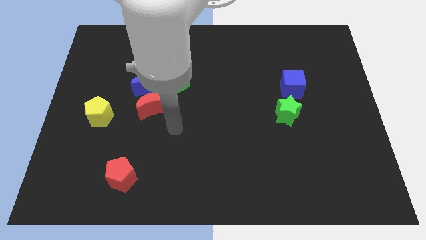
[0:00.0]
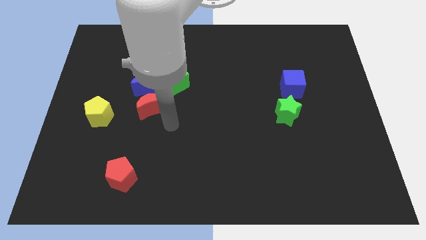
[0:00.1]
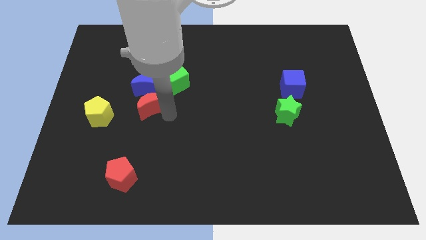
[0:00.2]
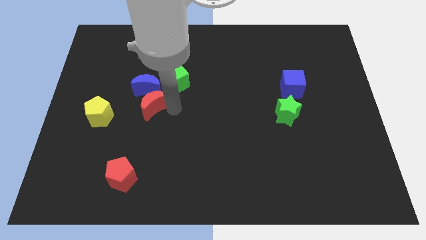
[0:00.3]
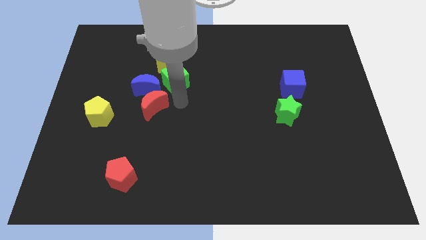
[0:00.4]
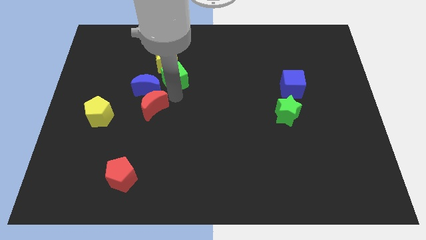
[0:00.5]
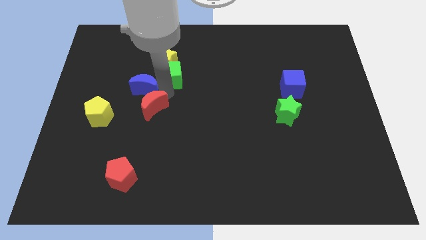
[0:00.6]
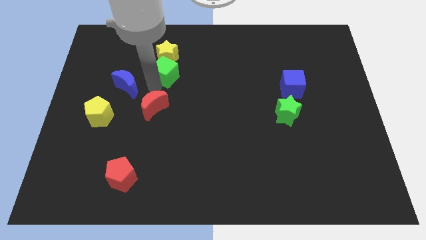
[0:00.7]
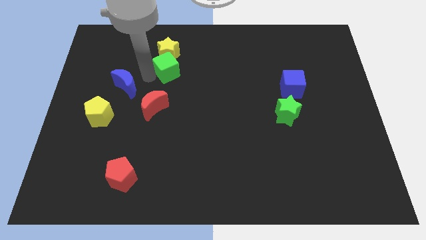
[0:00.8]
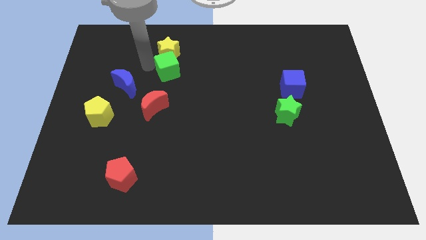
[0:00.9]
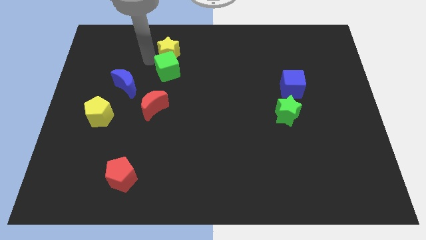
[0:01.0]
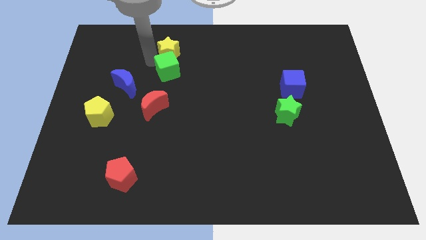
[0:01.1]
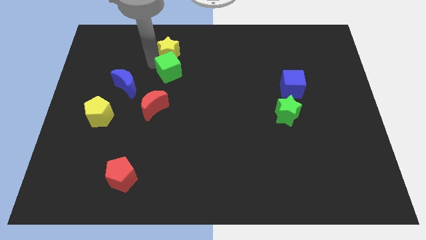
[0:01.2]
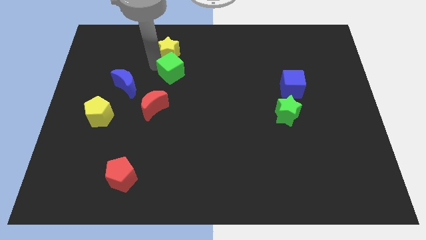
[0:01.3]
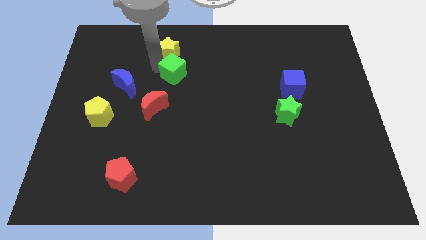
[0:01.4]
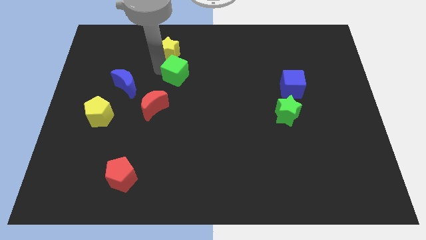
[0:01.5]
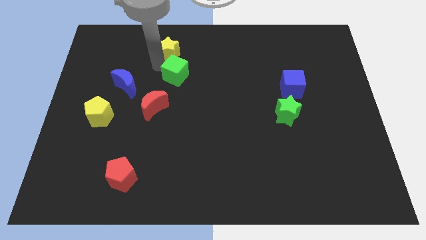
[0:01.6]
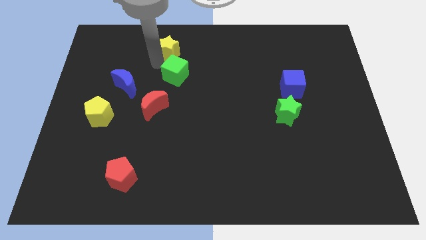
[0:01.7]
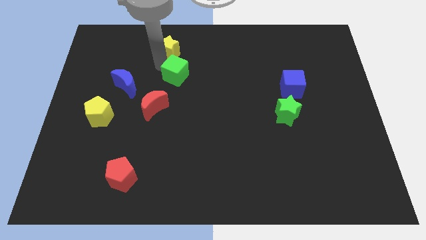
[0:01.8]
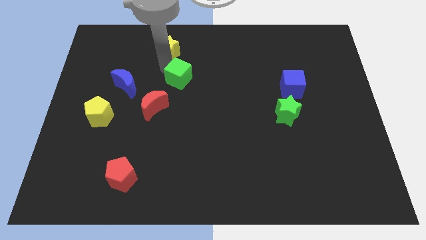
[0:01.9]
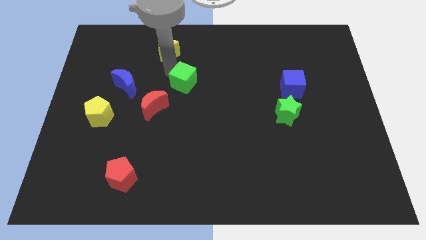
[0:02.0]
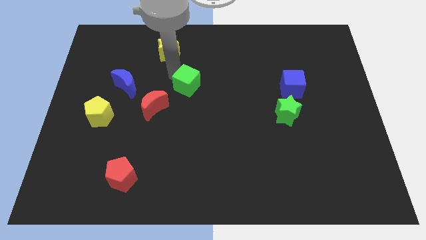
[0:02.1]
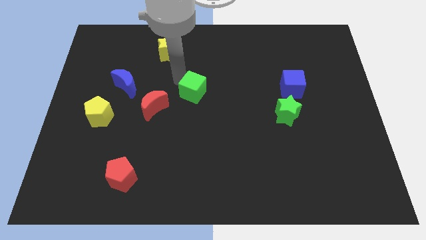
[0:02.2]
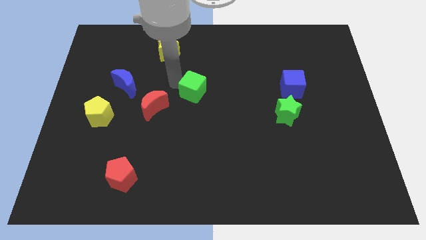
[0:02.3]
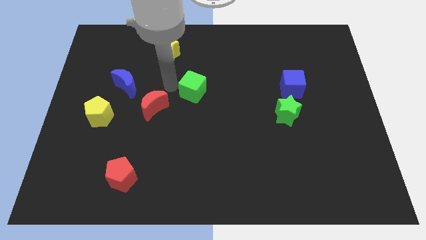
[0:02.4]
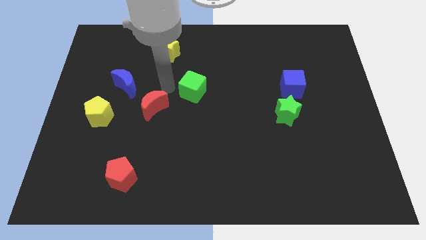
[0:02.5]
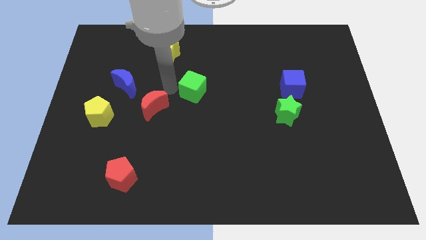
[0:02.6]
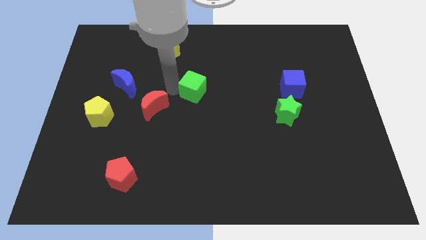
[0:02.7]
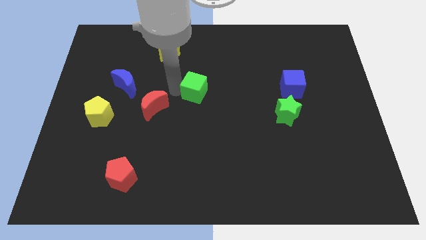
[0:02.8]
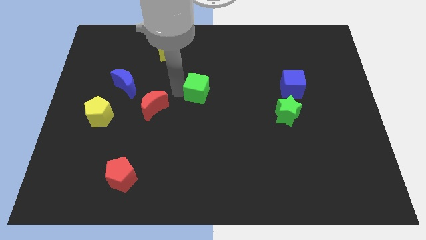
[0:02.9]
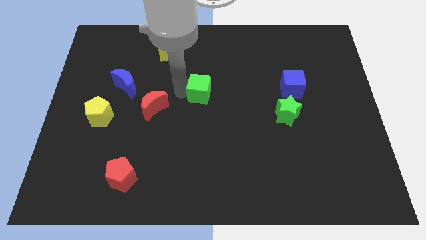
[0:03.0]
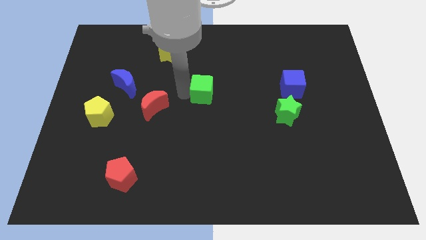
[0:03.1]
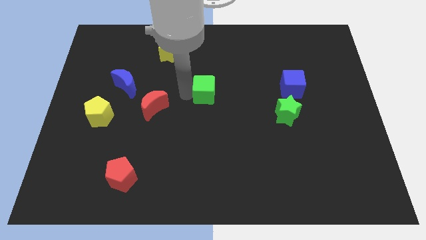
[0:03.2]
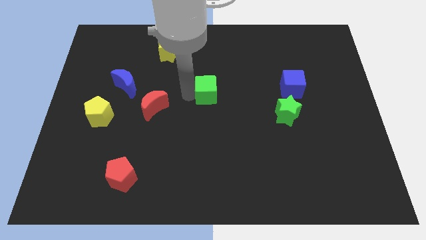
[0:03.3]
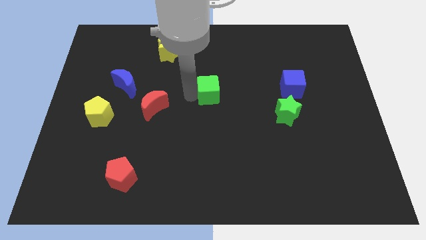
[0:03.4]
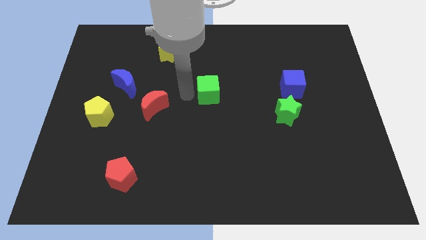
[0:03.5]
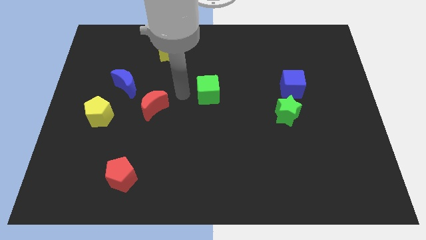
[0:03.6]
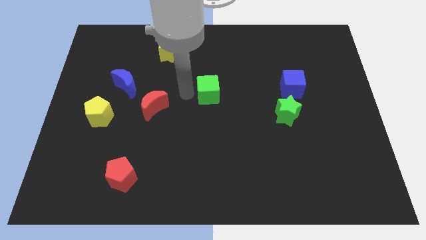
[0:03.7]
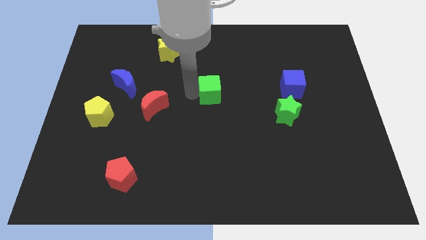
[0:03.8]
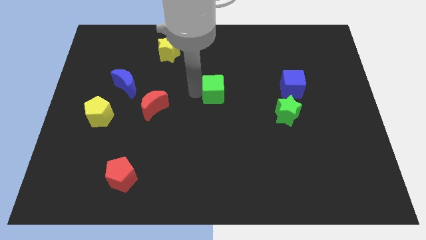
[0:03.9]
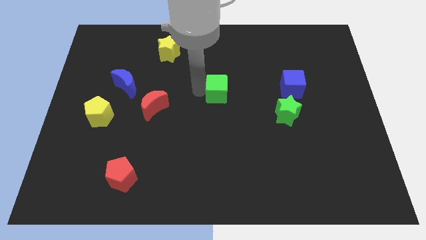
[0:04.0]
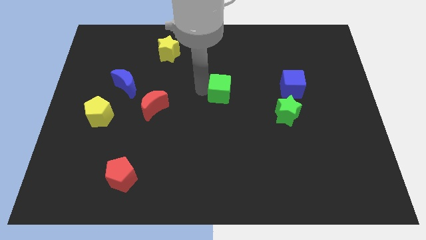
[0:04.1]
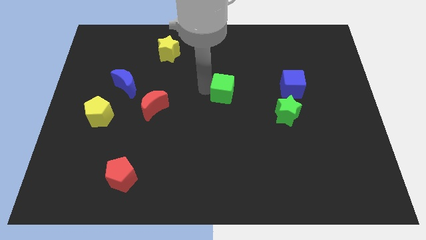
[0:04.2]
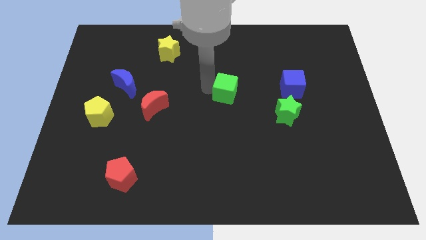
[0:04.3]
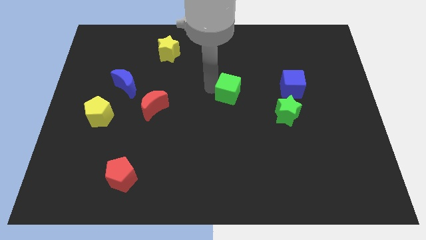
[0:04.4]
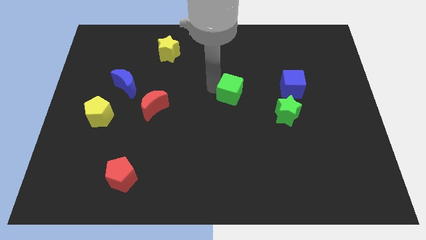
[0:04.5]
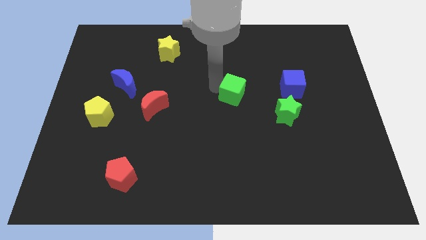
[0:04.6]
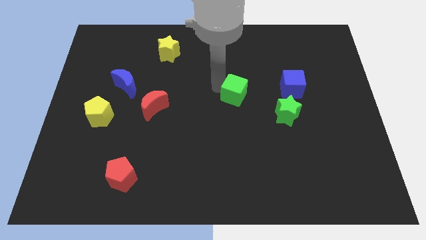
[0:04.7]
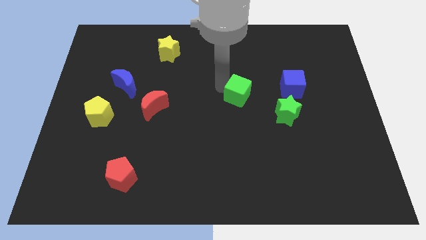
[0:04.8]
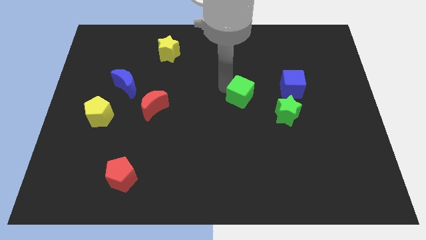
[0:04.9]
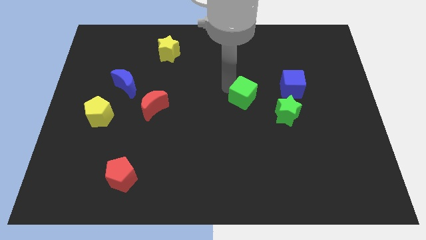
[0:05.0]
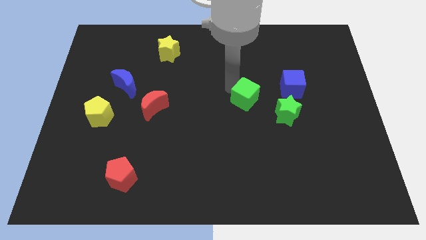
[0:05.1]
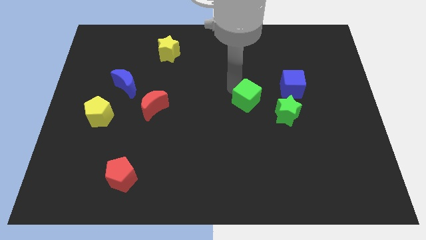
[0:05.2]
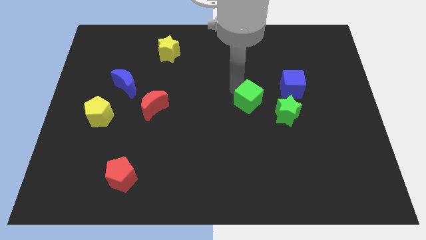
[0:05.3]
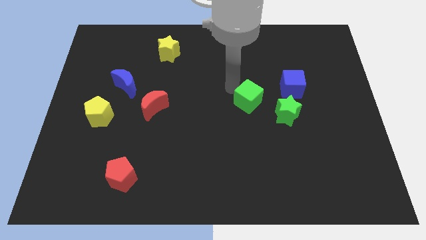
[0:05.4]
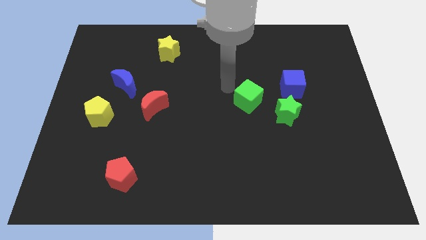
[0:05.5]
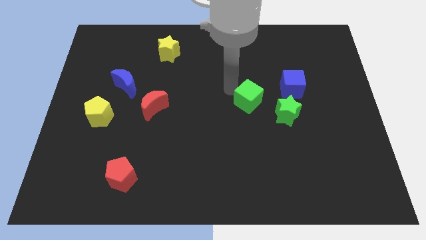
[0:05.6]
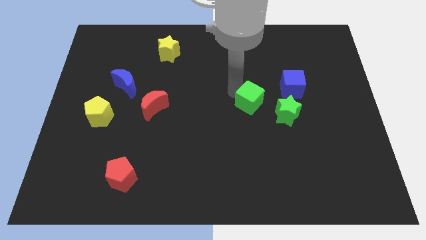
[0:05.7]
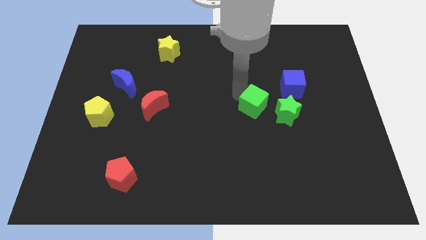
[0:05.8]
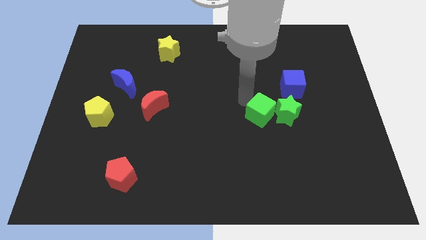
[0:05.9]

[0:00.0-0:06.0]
push the green cube close to the green star

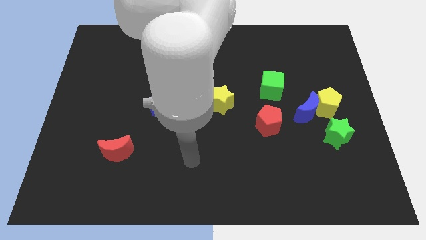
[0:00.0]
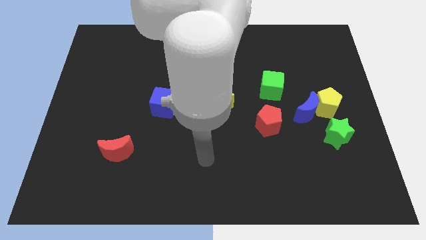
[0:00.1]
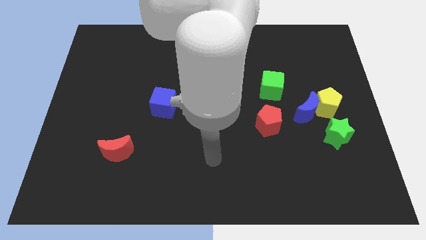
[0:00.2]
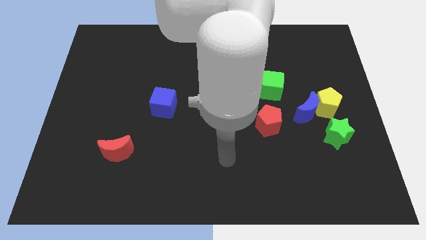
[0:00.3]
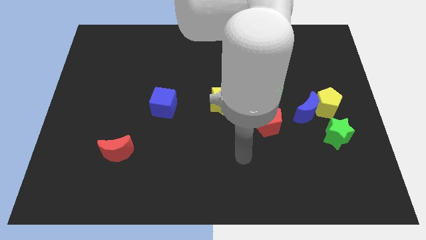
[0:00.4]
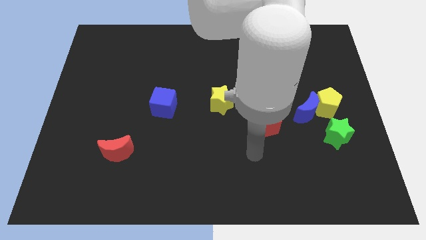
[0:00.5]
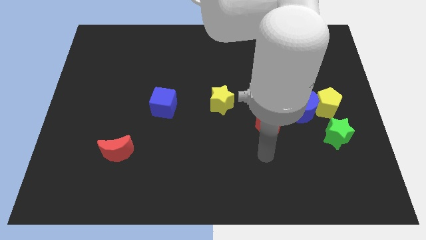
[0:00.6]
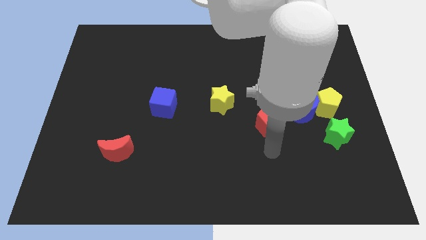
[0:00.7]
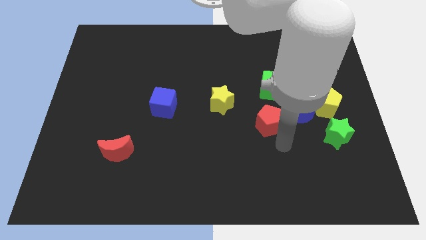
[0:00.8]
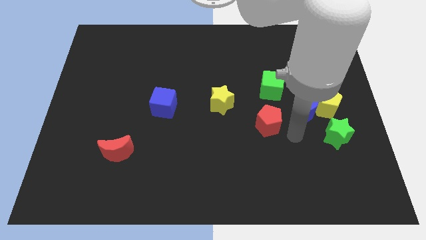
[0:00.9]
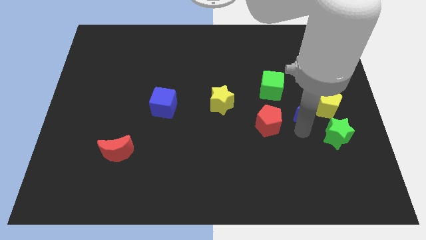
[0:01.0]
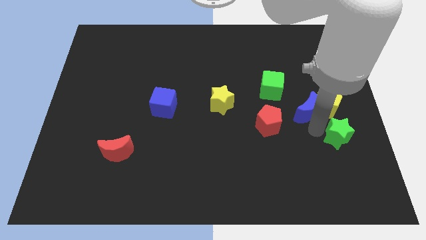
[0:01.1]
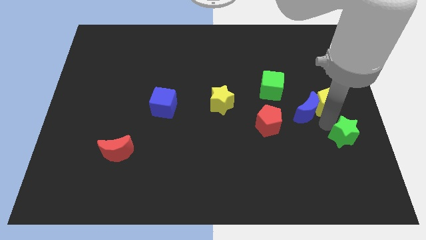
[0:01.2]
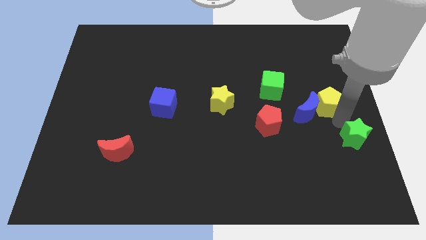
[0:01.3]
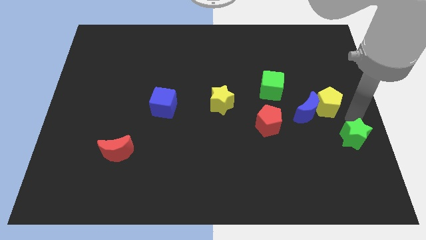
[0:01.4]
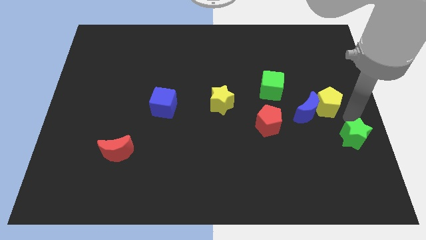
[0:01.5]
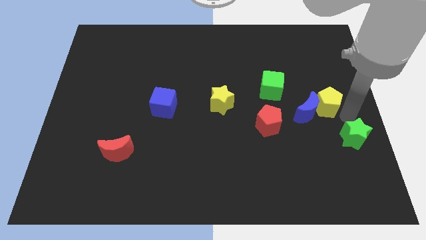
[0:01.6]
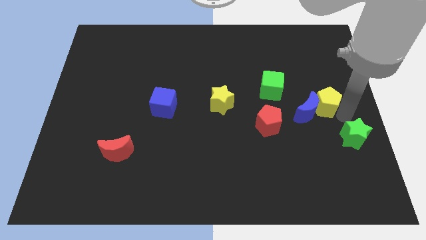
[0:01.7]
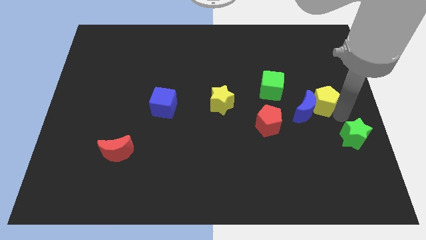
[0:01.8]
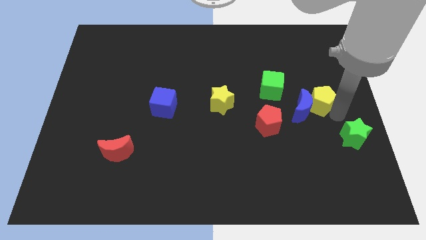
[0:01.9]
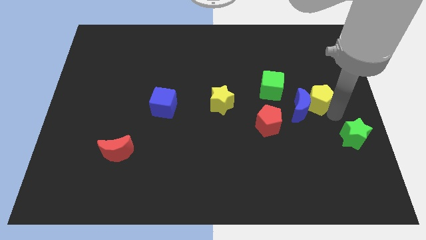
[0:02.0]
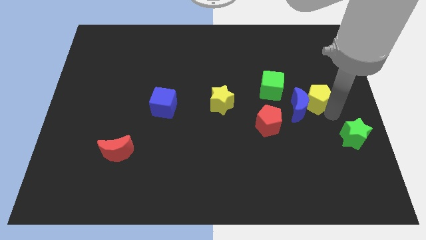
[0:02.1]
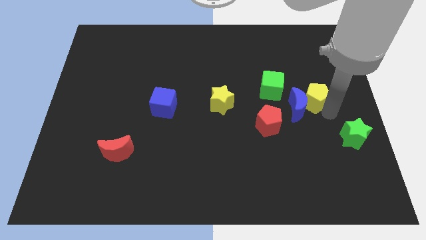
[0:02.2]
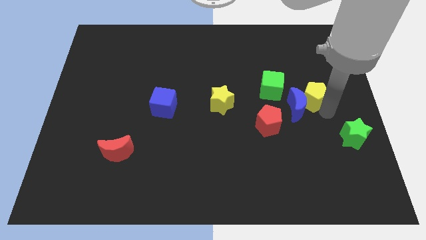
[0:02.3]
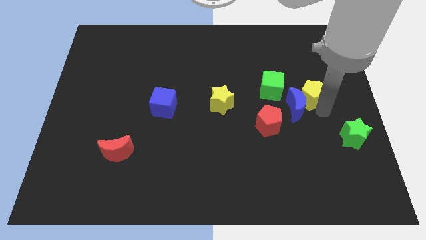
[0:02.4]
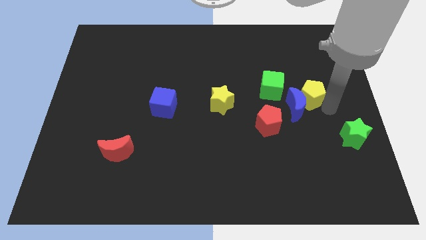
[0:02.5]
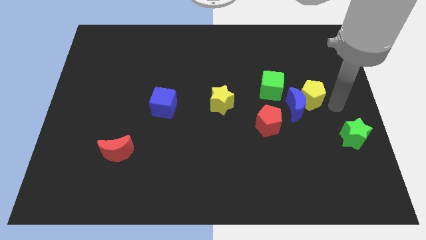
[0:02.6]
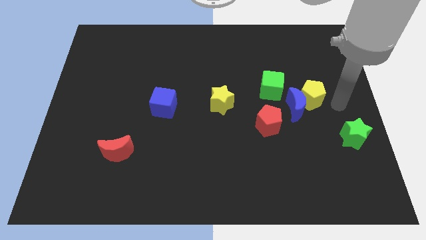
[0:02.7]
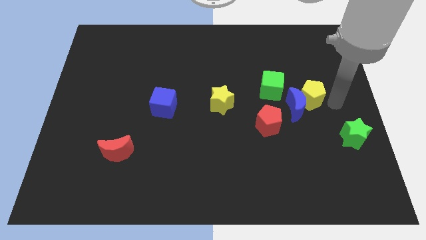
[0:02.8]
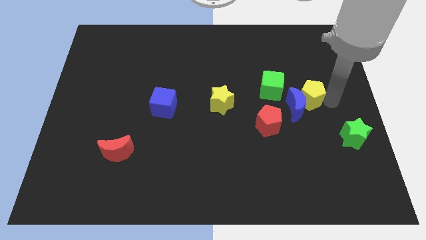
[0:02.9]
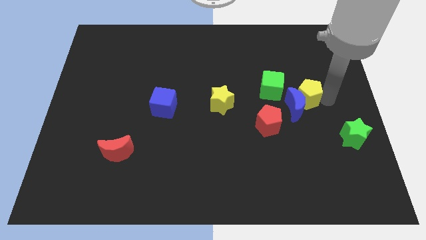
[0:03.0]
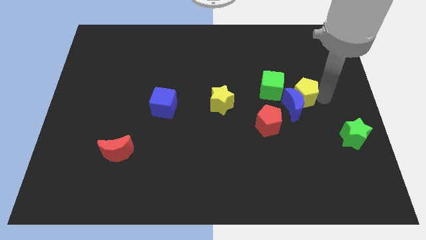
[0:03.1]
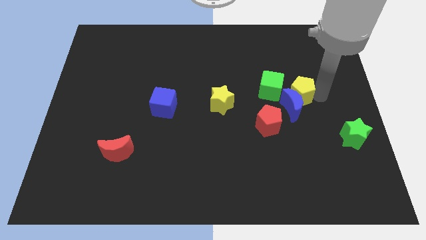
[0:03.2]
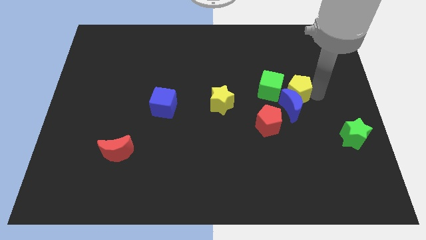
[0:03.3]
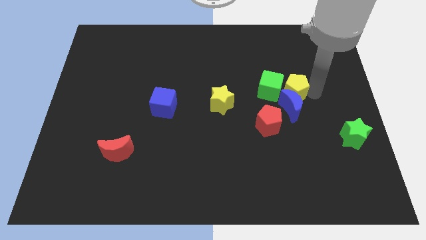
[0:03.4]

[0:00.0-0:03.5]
move the yellow pentagon towards the green cube
